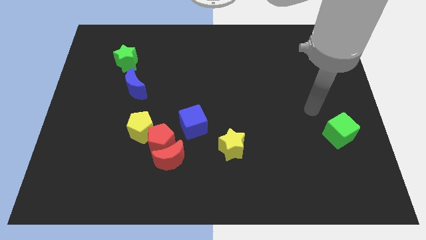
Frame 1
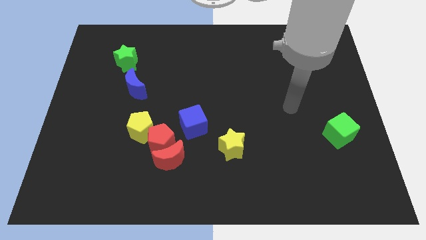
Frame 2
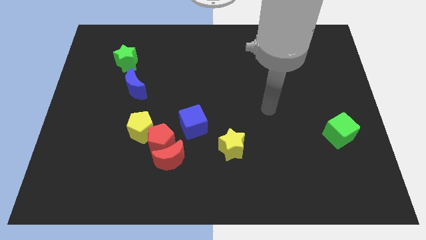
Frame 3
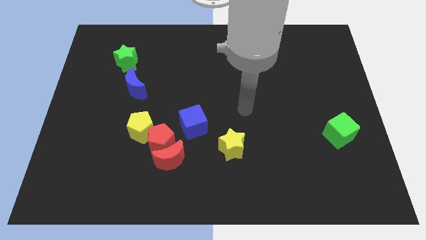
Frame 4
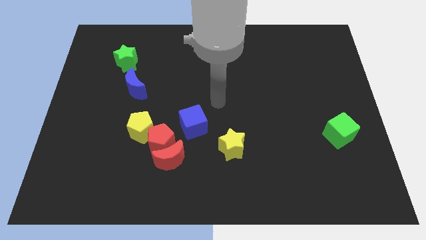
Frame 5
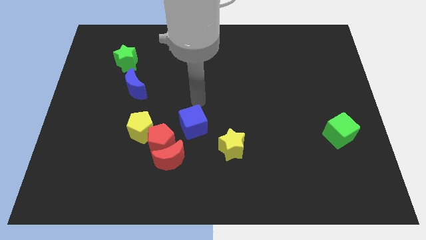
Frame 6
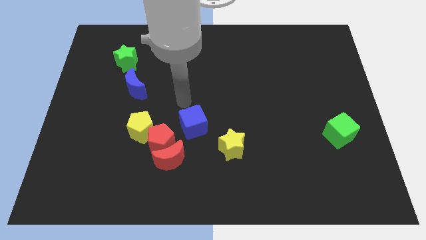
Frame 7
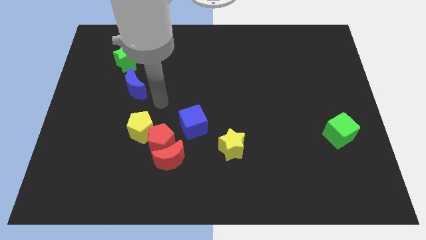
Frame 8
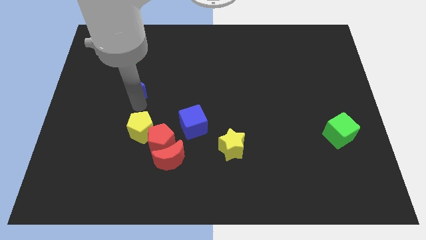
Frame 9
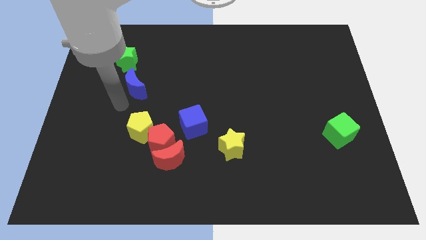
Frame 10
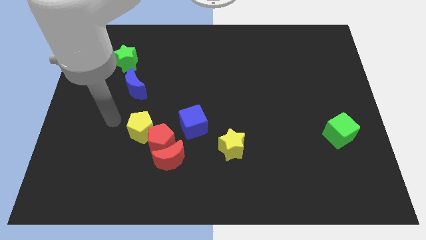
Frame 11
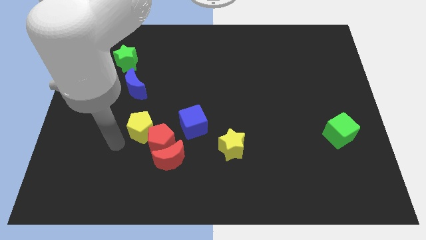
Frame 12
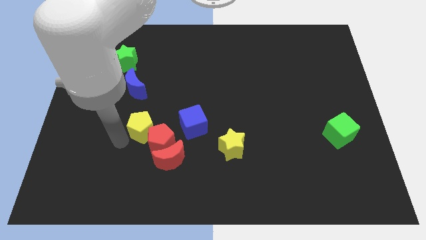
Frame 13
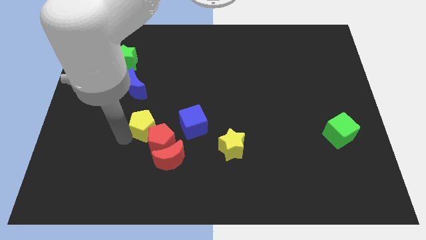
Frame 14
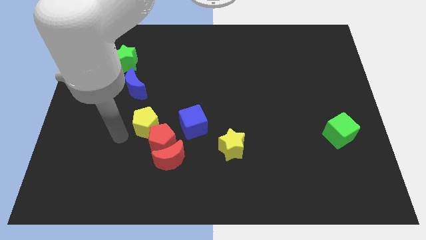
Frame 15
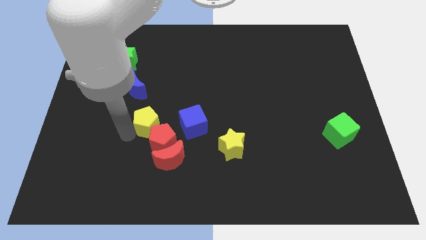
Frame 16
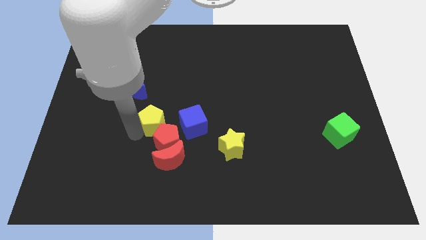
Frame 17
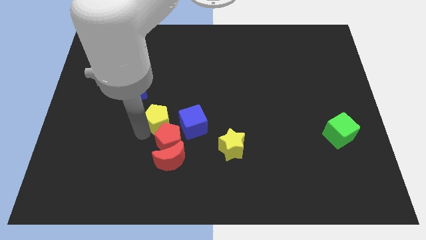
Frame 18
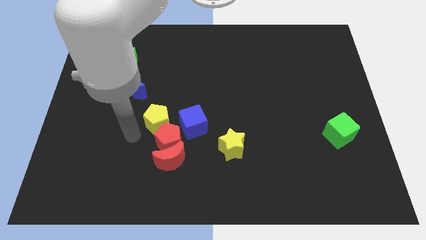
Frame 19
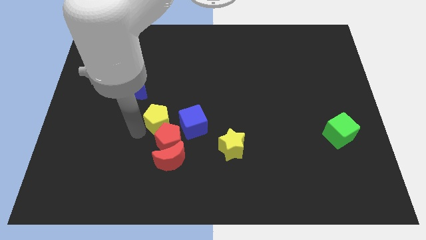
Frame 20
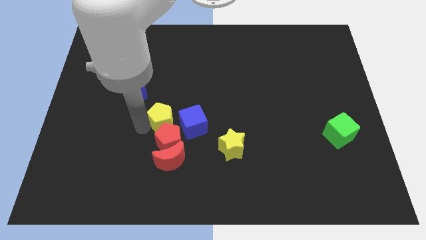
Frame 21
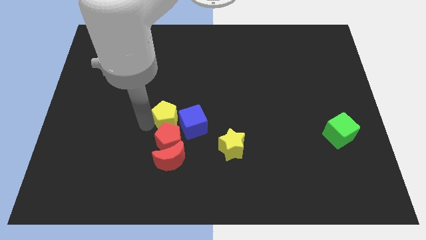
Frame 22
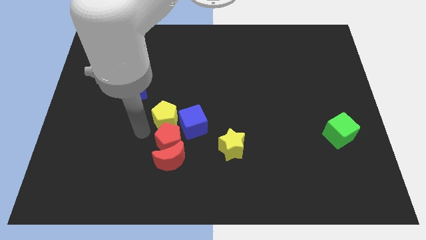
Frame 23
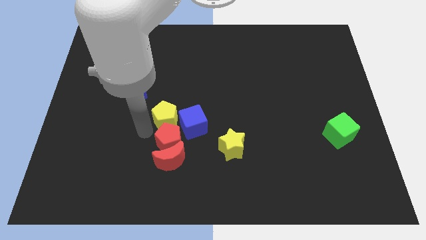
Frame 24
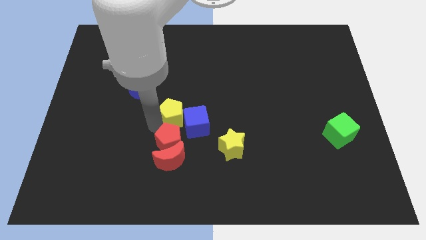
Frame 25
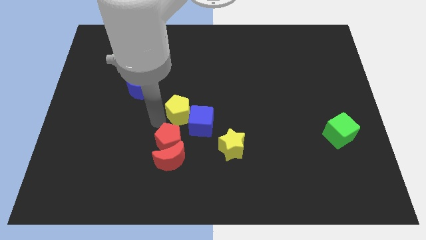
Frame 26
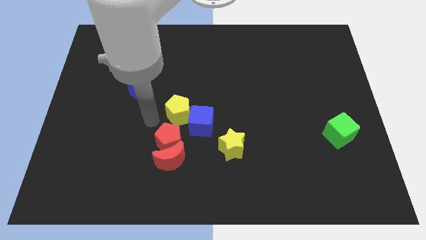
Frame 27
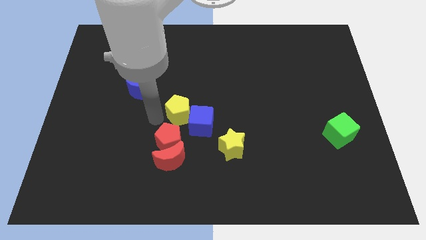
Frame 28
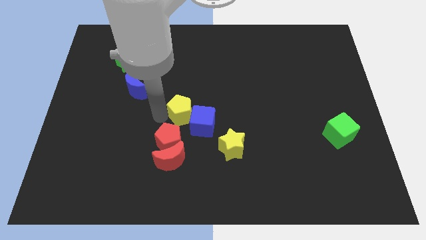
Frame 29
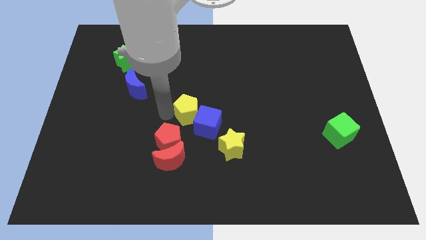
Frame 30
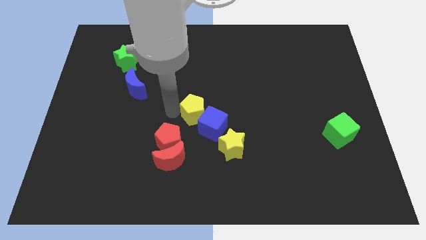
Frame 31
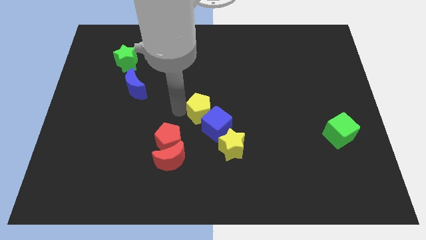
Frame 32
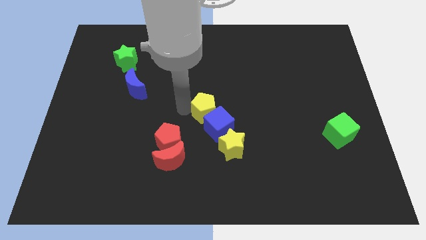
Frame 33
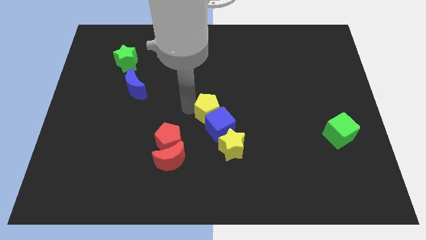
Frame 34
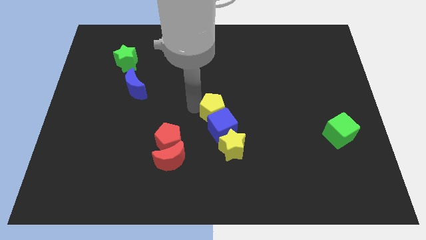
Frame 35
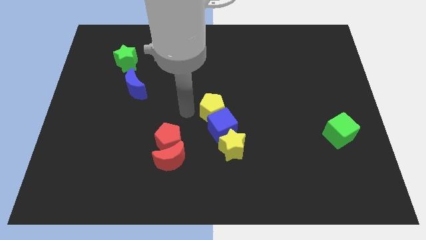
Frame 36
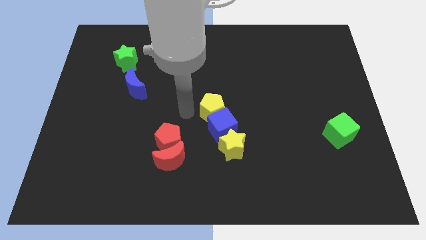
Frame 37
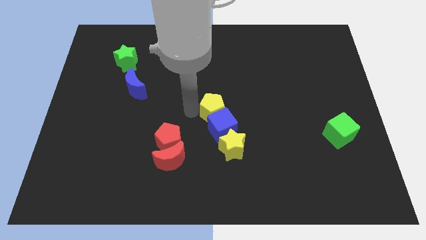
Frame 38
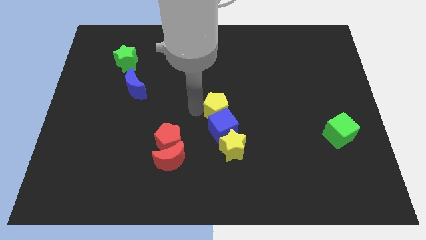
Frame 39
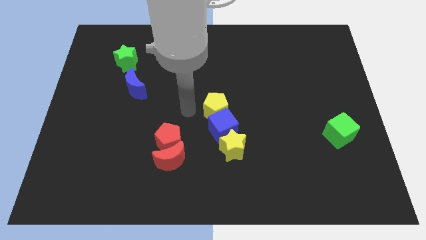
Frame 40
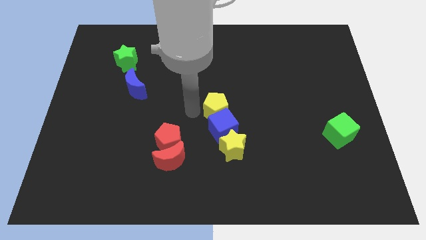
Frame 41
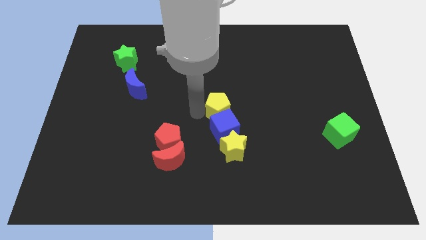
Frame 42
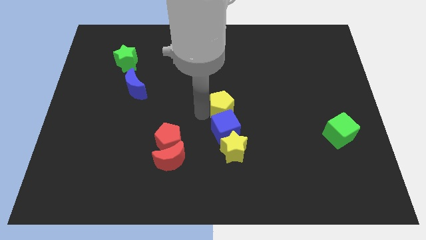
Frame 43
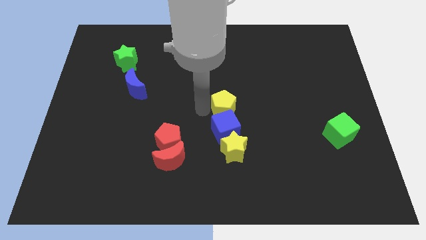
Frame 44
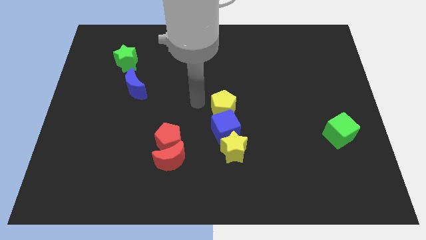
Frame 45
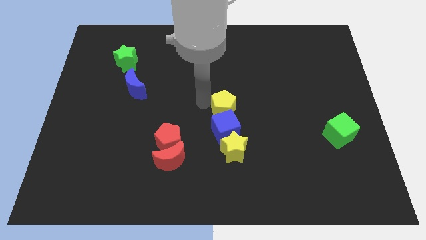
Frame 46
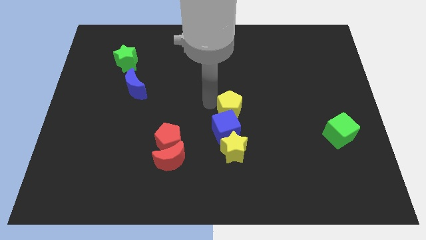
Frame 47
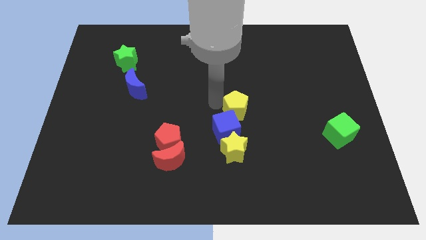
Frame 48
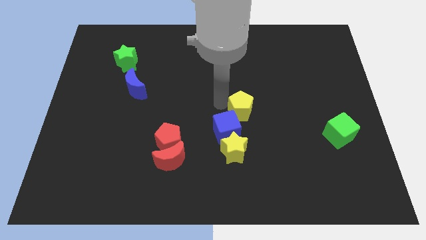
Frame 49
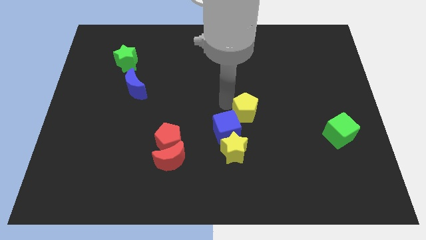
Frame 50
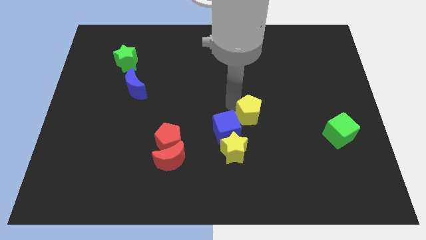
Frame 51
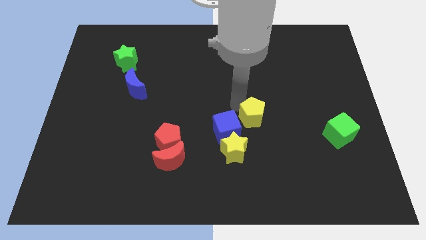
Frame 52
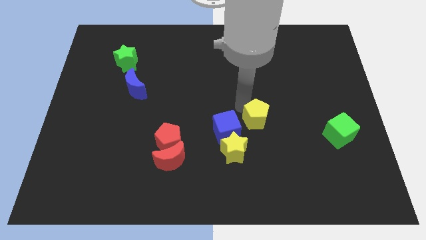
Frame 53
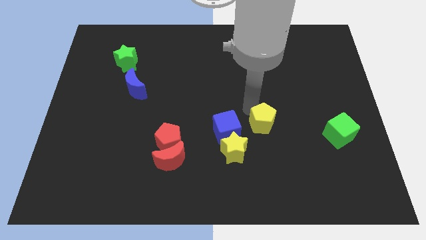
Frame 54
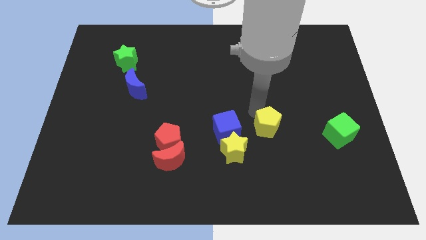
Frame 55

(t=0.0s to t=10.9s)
move the yellow pentagon left of the green cube

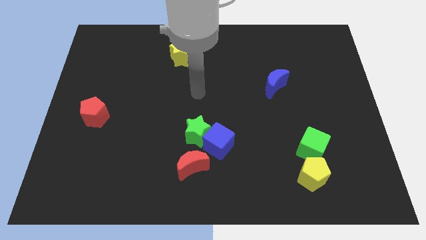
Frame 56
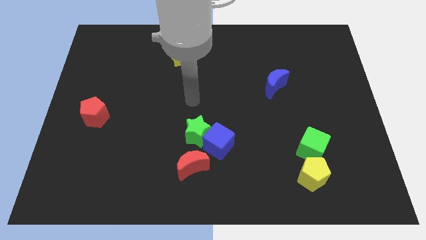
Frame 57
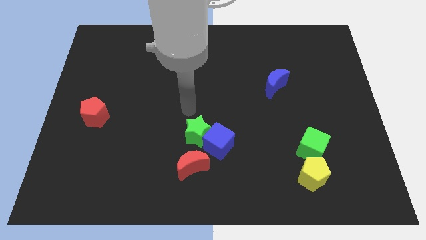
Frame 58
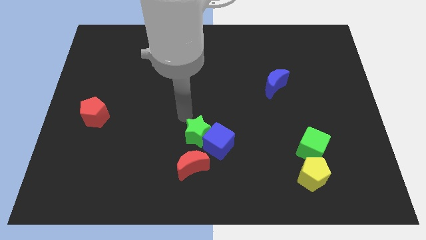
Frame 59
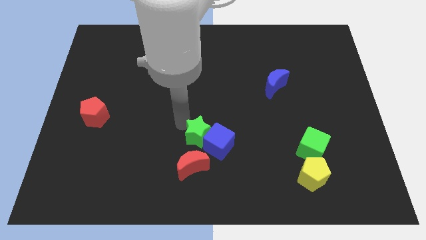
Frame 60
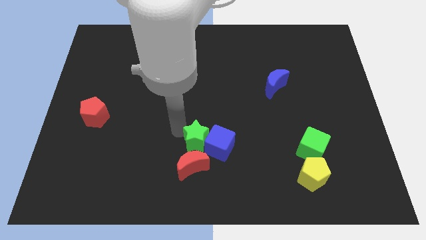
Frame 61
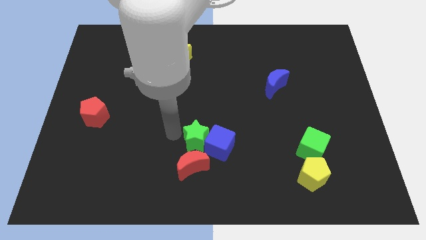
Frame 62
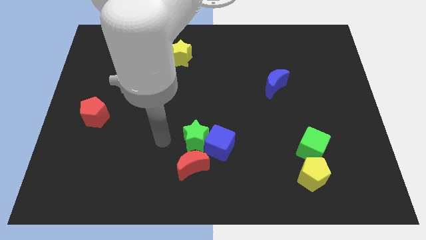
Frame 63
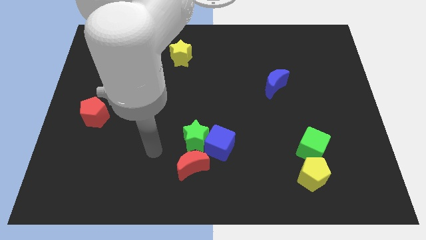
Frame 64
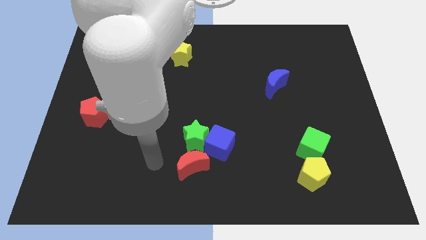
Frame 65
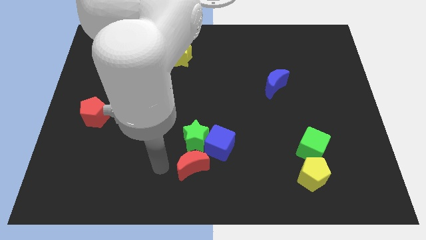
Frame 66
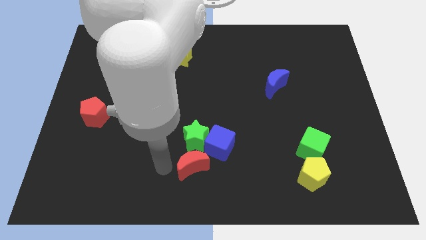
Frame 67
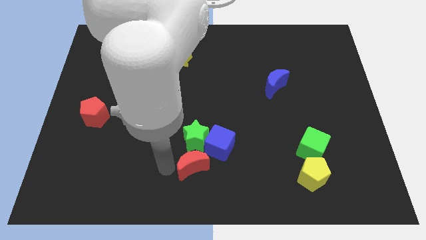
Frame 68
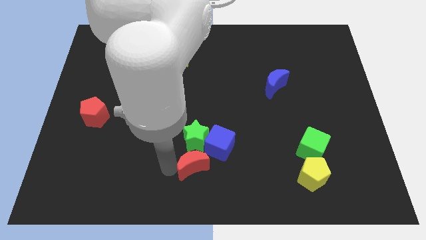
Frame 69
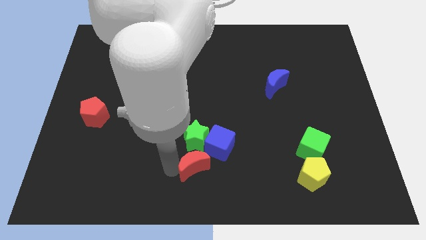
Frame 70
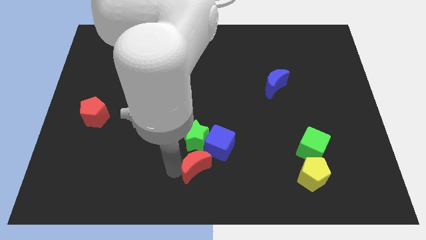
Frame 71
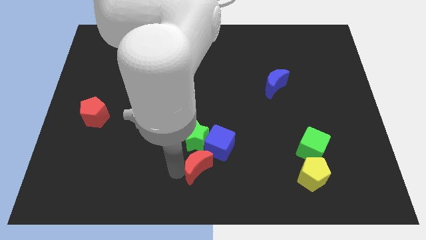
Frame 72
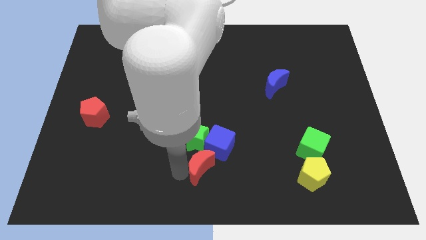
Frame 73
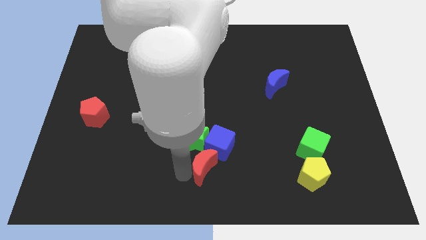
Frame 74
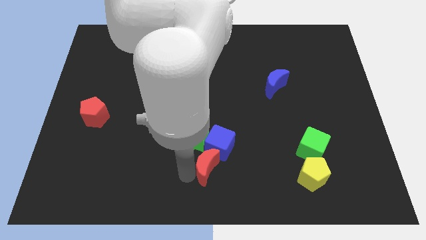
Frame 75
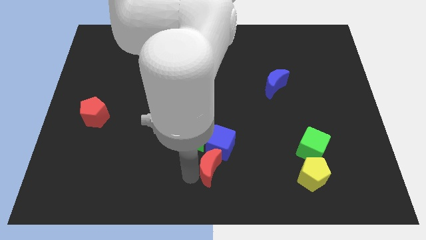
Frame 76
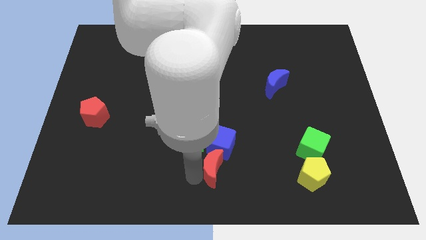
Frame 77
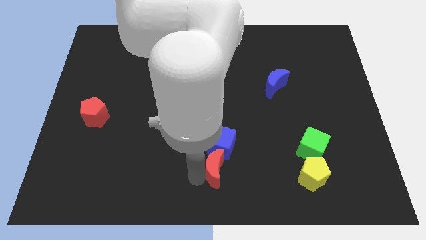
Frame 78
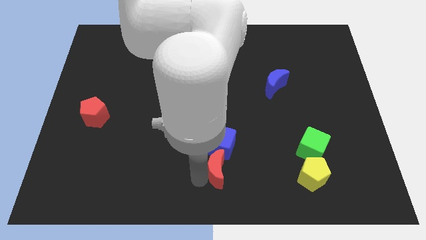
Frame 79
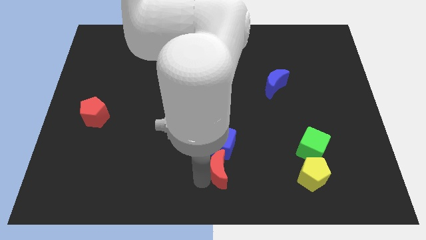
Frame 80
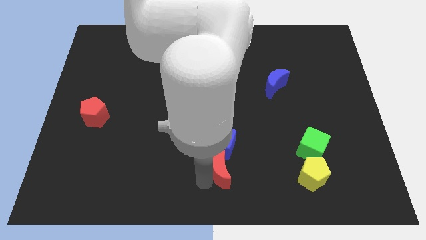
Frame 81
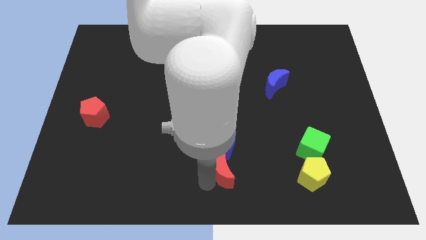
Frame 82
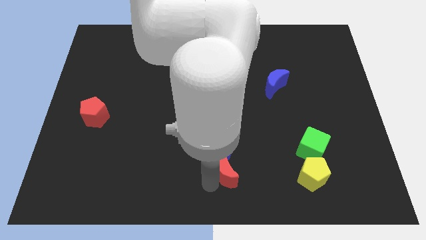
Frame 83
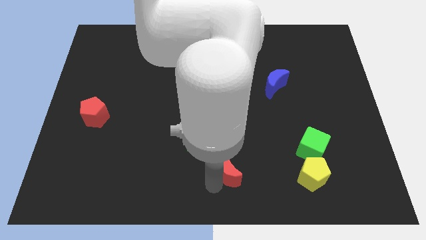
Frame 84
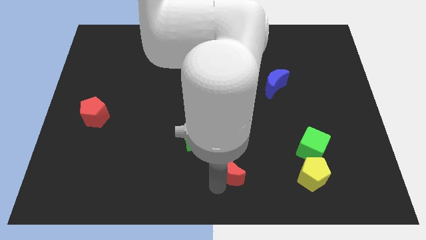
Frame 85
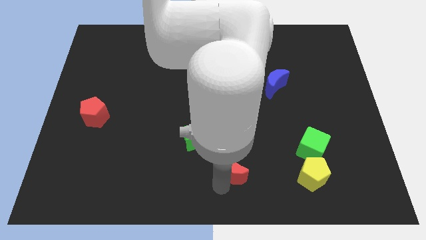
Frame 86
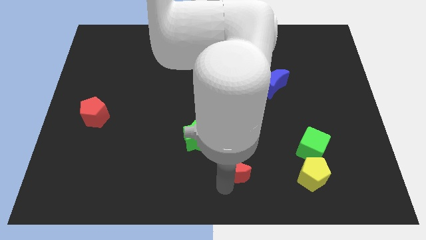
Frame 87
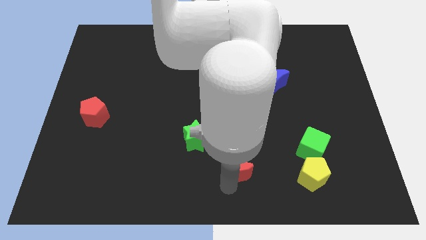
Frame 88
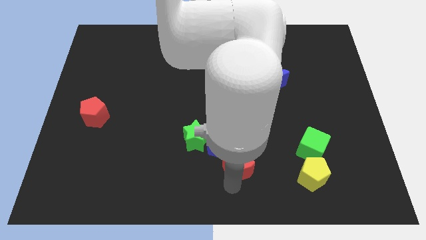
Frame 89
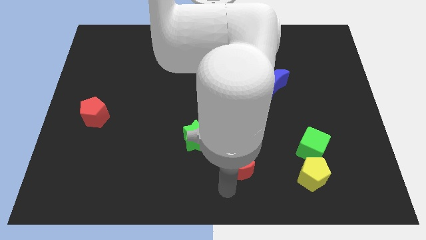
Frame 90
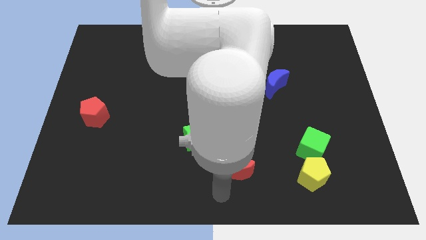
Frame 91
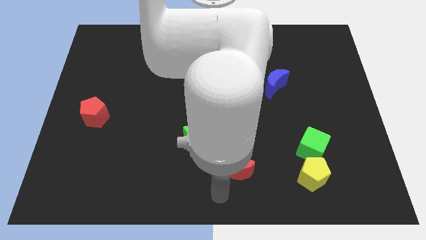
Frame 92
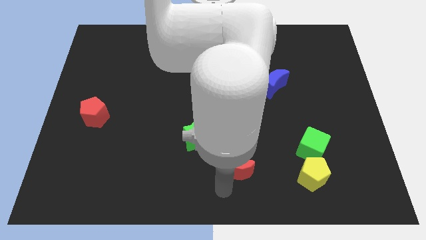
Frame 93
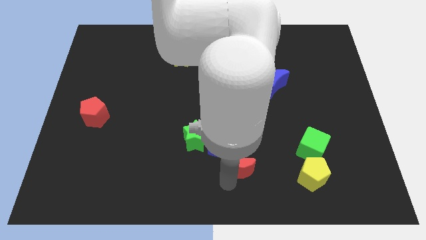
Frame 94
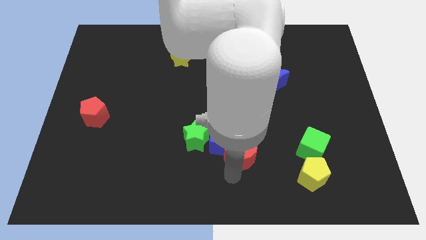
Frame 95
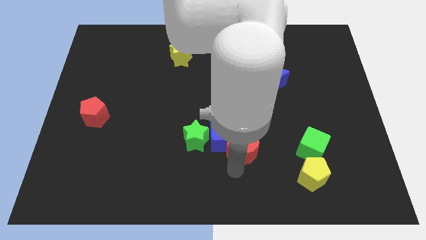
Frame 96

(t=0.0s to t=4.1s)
push the red moon right of the green star
